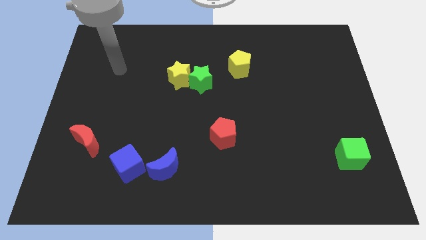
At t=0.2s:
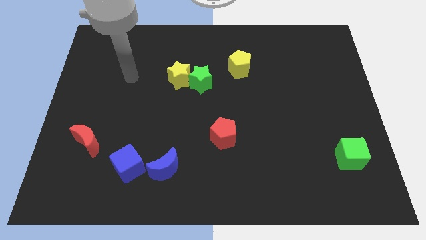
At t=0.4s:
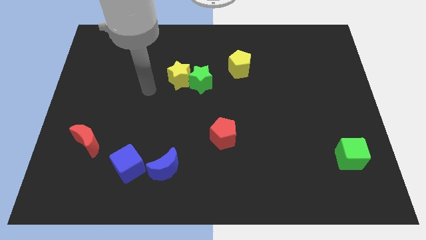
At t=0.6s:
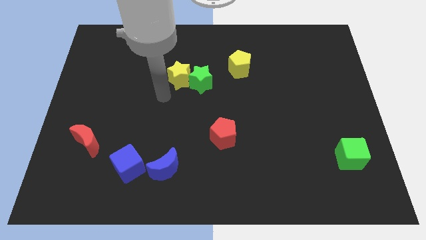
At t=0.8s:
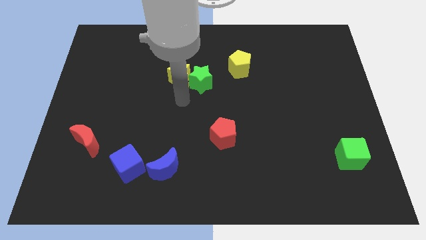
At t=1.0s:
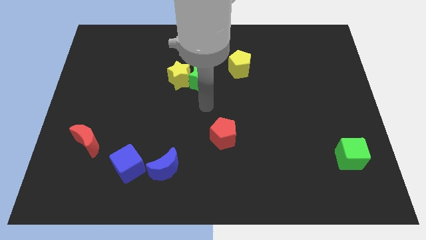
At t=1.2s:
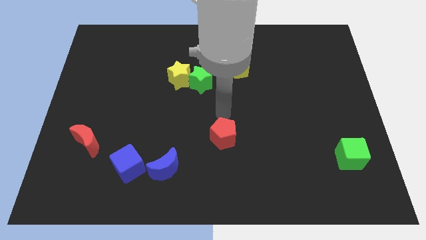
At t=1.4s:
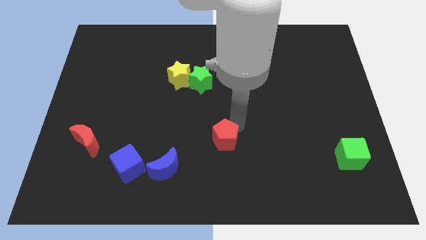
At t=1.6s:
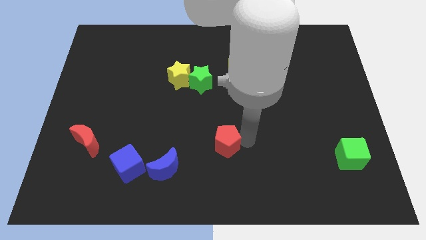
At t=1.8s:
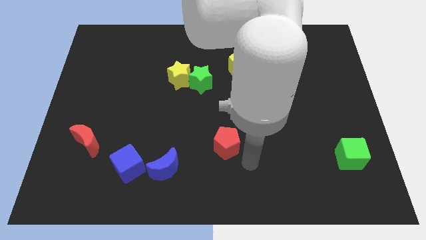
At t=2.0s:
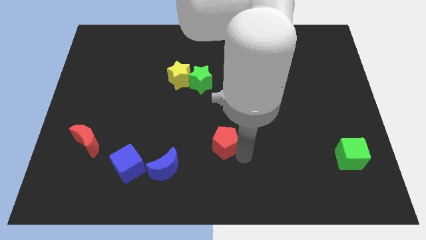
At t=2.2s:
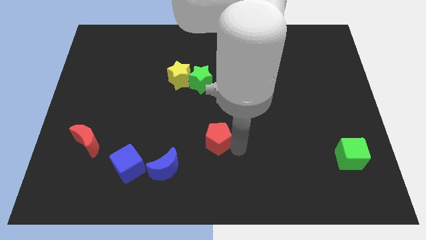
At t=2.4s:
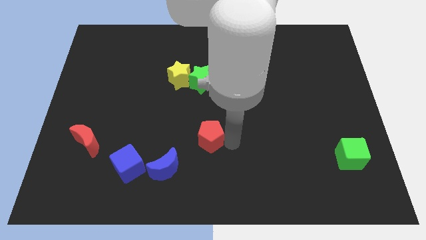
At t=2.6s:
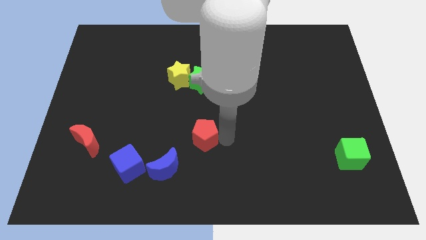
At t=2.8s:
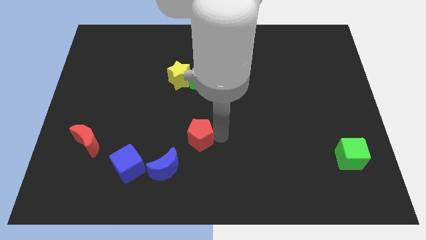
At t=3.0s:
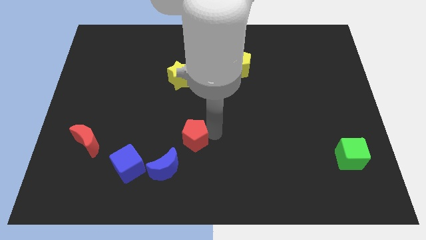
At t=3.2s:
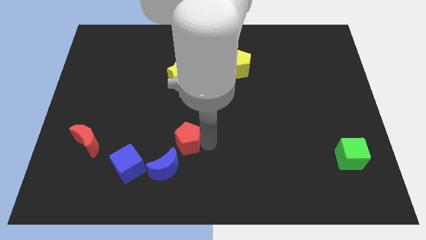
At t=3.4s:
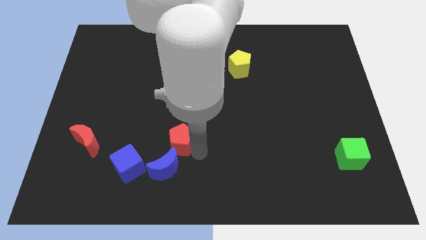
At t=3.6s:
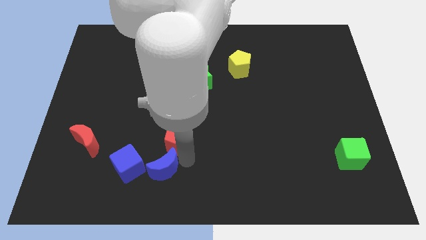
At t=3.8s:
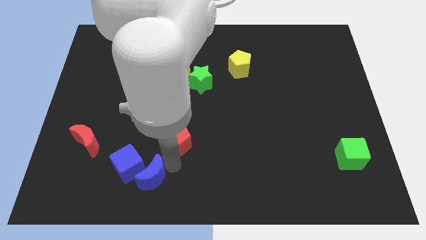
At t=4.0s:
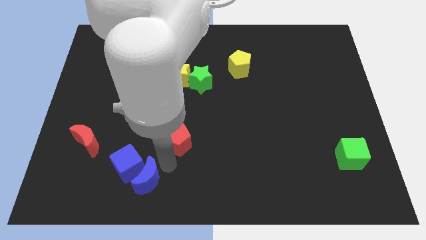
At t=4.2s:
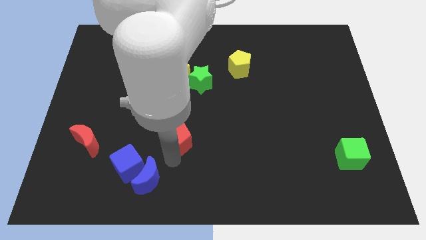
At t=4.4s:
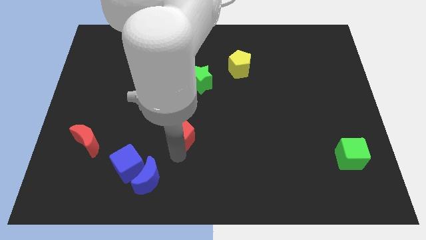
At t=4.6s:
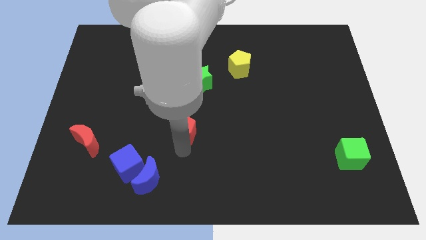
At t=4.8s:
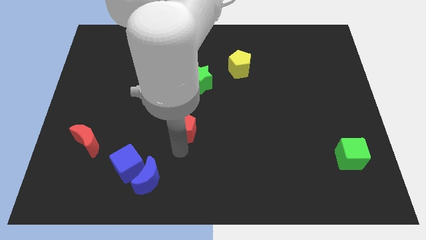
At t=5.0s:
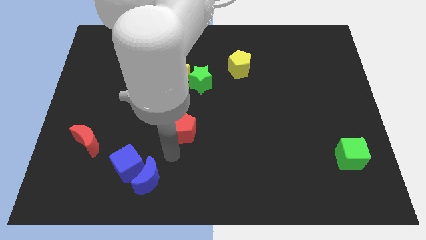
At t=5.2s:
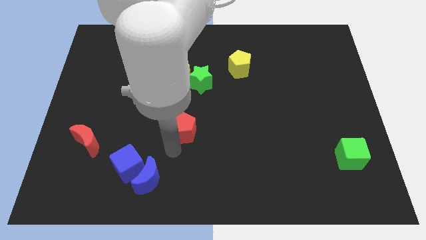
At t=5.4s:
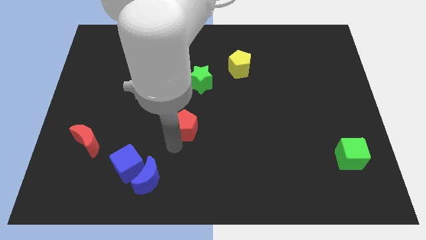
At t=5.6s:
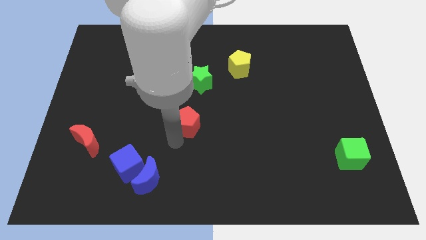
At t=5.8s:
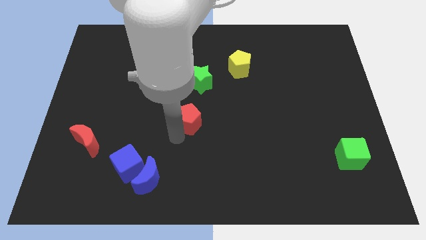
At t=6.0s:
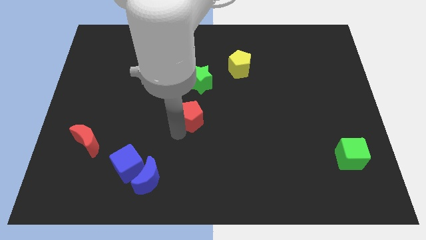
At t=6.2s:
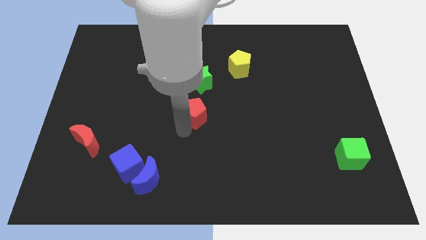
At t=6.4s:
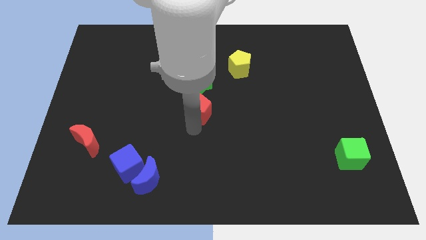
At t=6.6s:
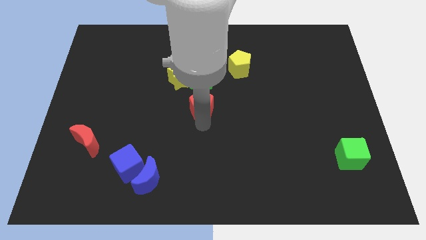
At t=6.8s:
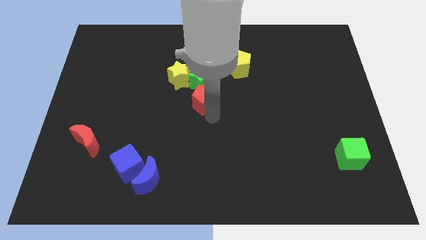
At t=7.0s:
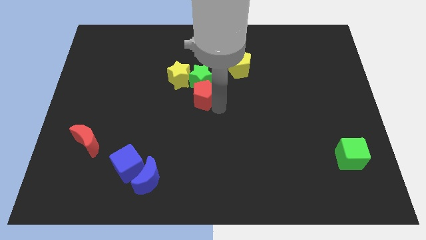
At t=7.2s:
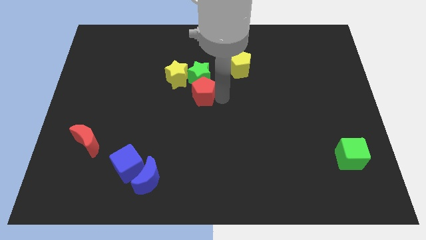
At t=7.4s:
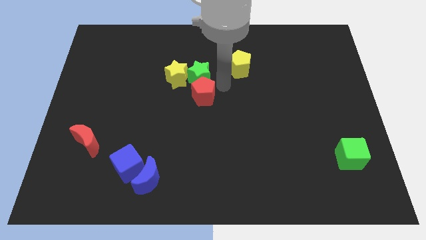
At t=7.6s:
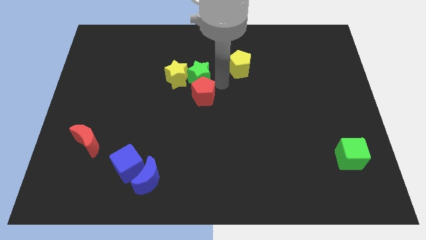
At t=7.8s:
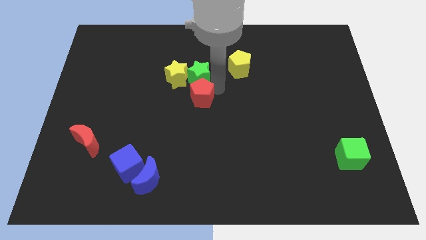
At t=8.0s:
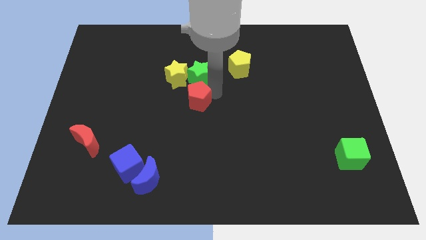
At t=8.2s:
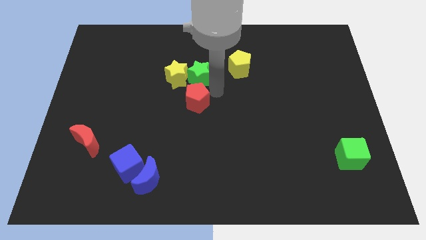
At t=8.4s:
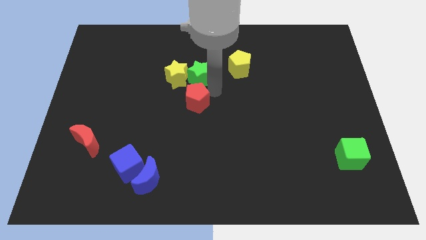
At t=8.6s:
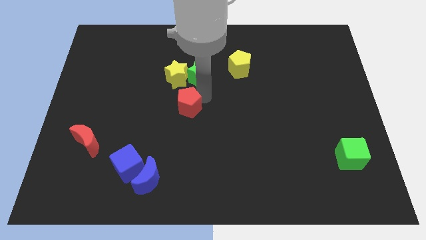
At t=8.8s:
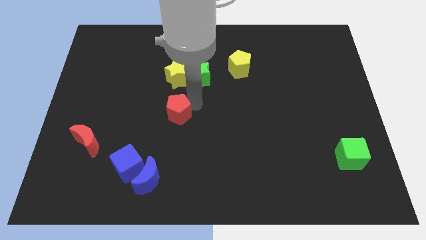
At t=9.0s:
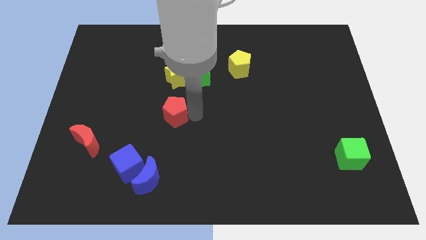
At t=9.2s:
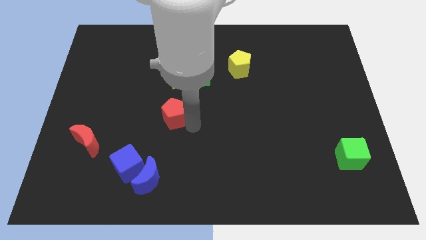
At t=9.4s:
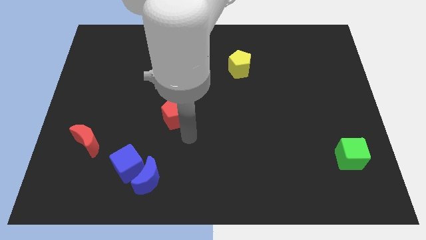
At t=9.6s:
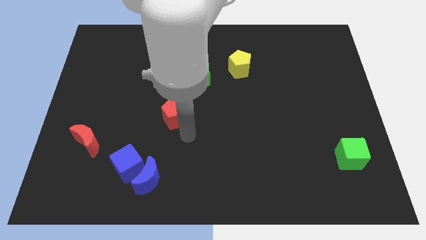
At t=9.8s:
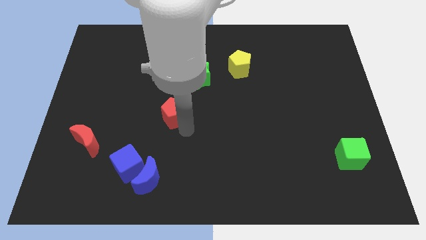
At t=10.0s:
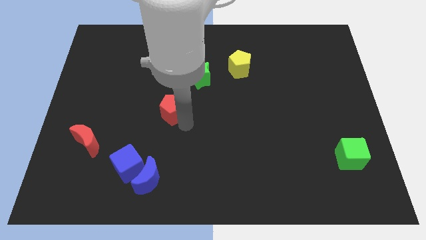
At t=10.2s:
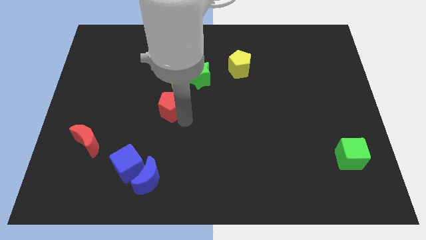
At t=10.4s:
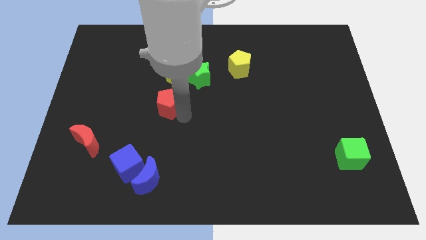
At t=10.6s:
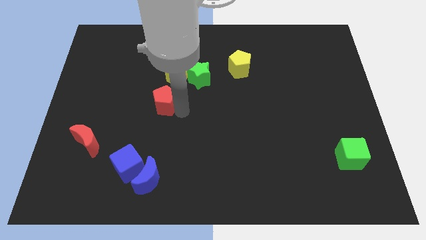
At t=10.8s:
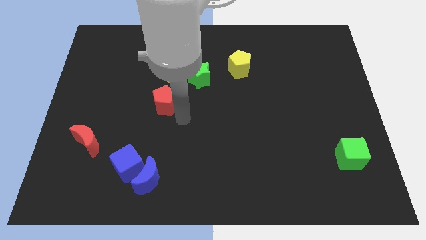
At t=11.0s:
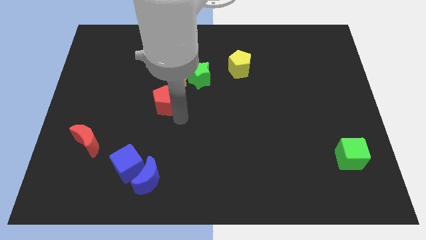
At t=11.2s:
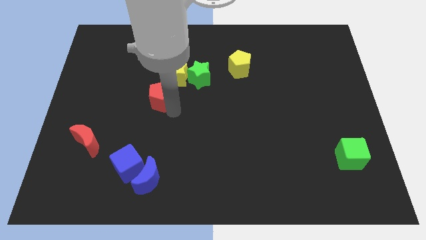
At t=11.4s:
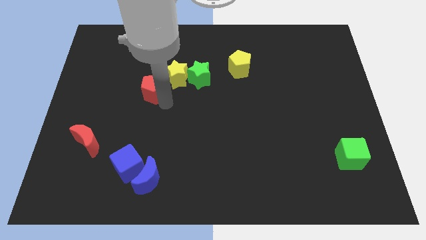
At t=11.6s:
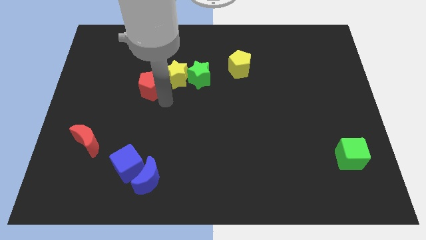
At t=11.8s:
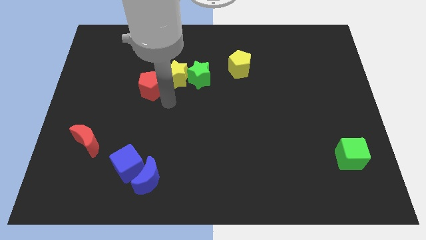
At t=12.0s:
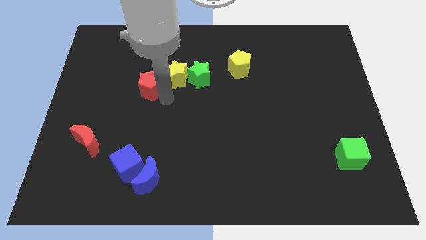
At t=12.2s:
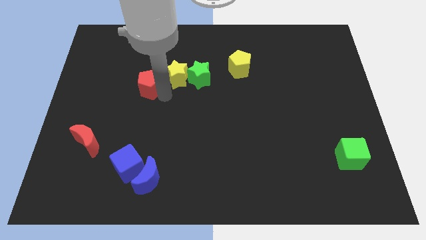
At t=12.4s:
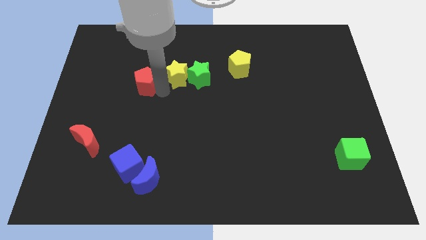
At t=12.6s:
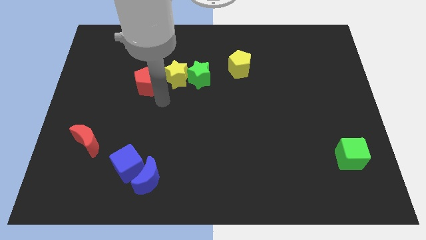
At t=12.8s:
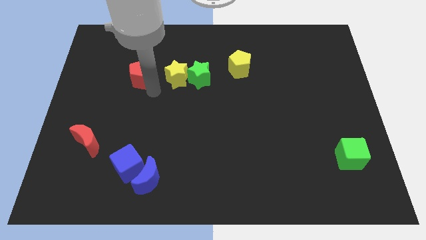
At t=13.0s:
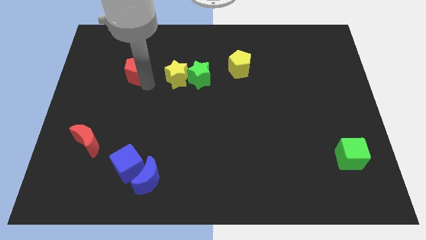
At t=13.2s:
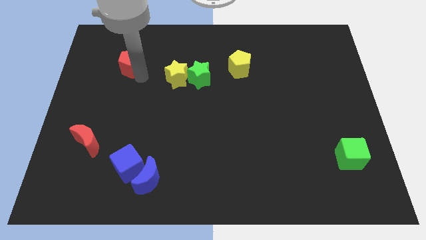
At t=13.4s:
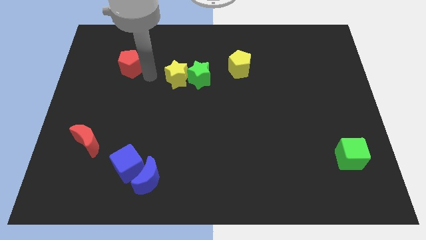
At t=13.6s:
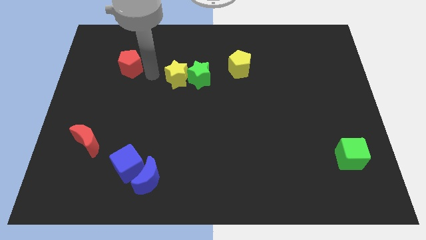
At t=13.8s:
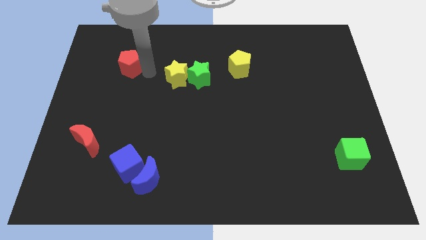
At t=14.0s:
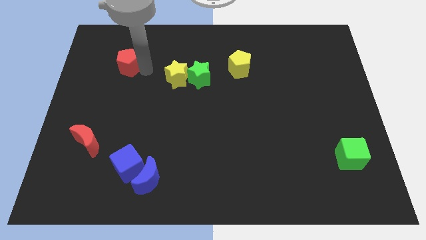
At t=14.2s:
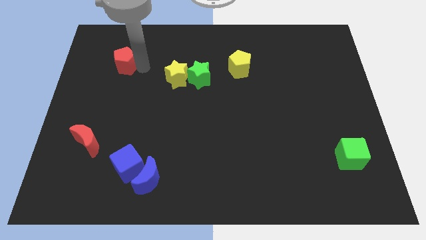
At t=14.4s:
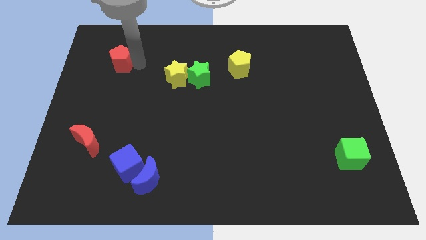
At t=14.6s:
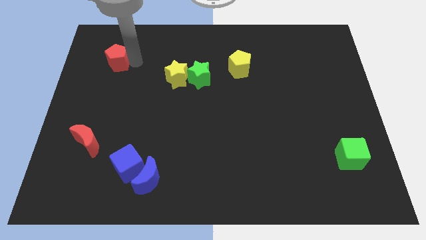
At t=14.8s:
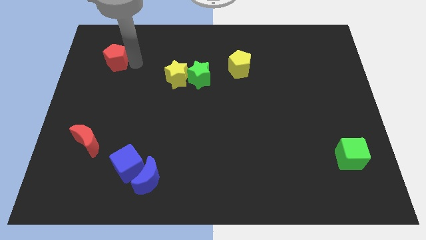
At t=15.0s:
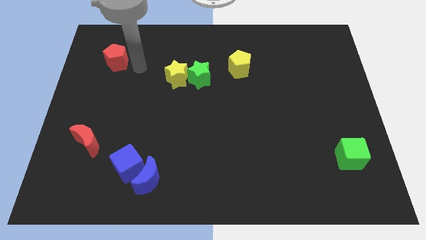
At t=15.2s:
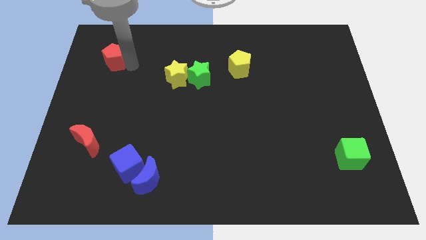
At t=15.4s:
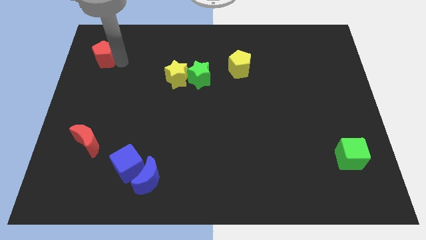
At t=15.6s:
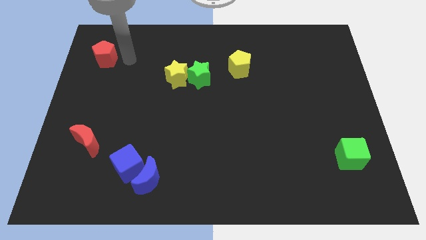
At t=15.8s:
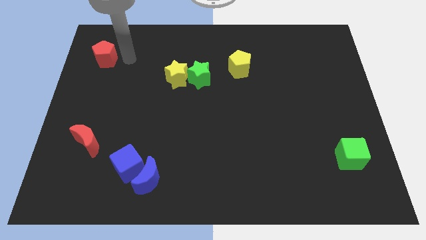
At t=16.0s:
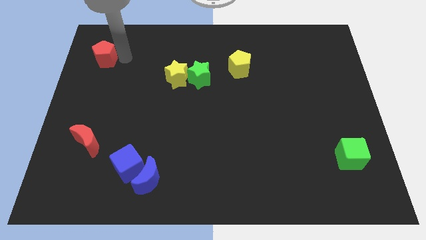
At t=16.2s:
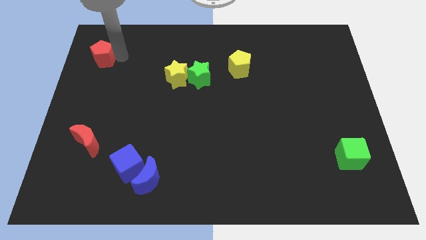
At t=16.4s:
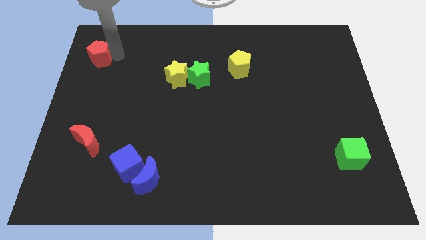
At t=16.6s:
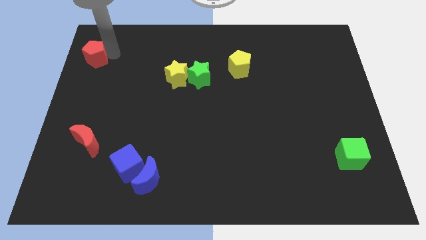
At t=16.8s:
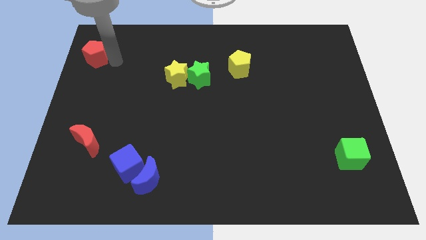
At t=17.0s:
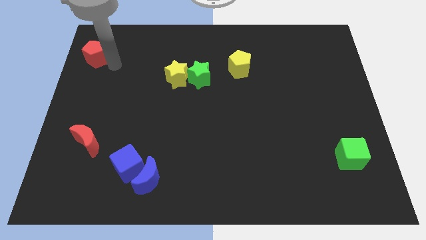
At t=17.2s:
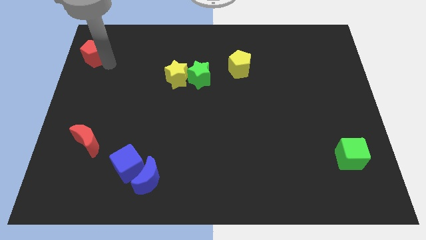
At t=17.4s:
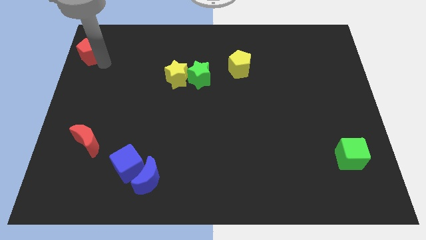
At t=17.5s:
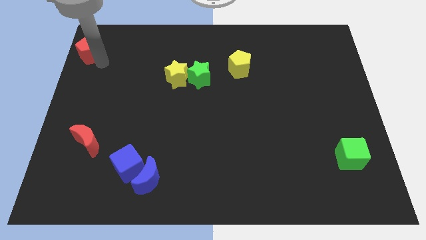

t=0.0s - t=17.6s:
push the red pentagon to the top left
